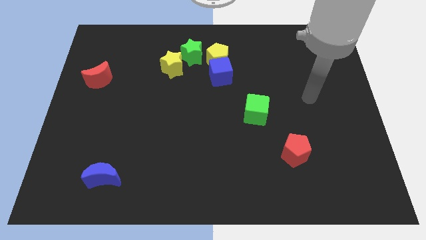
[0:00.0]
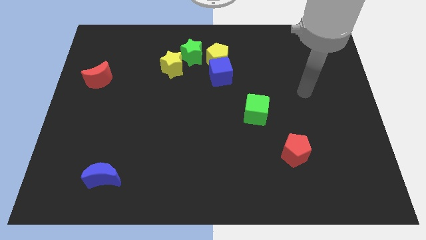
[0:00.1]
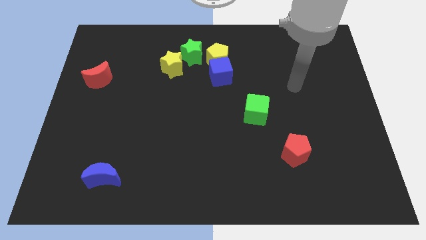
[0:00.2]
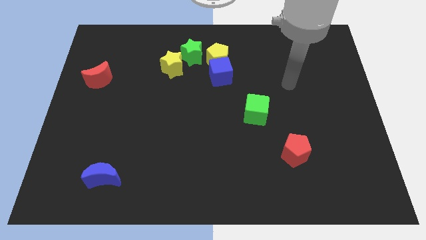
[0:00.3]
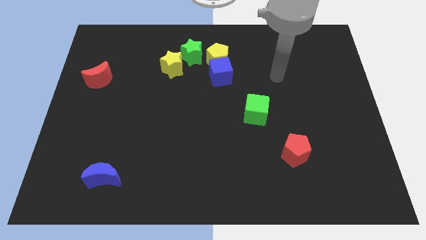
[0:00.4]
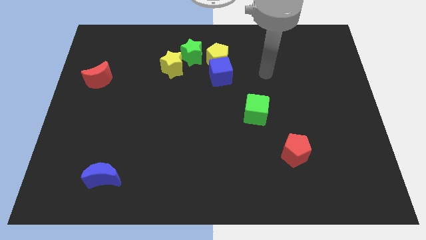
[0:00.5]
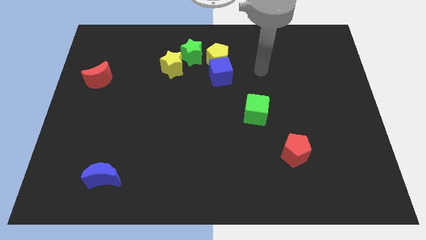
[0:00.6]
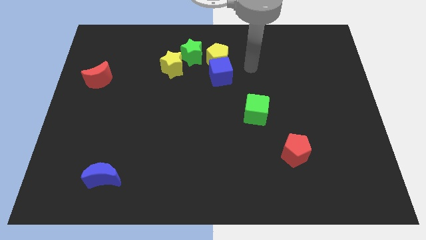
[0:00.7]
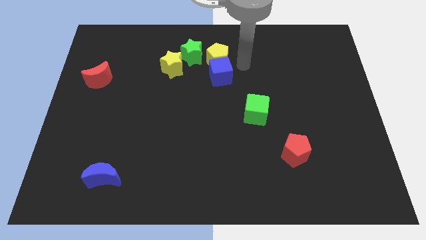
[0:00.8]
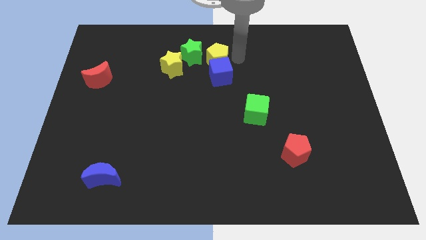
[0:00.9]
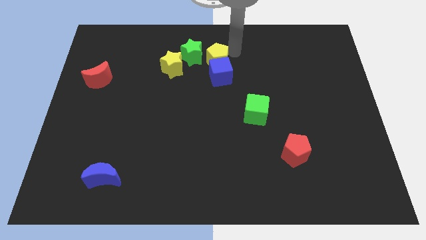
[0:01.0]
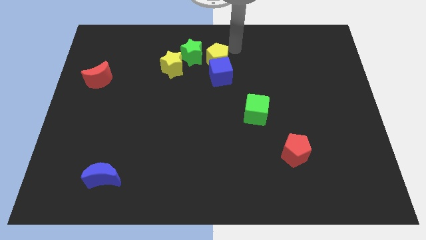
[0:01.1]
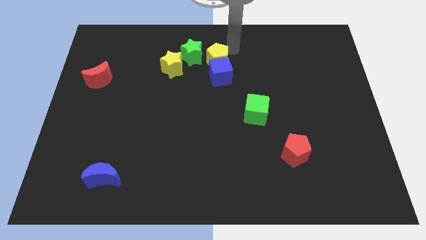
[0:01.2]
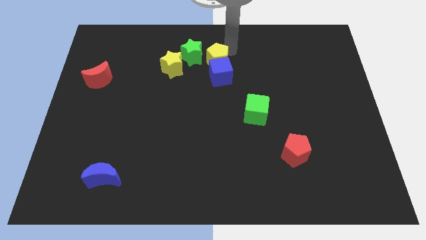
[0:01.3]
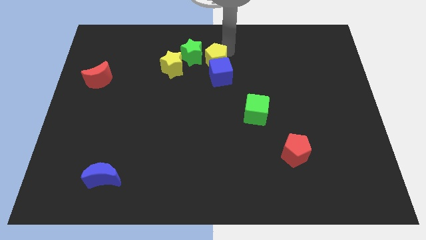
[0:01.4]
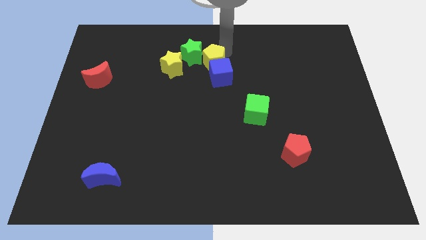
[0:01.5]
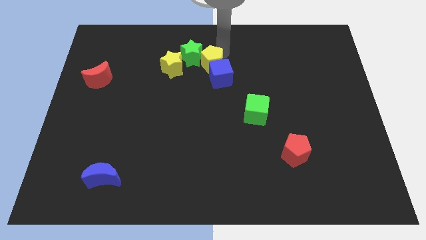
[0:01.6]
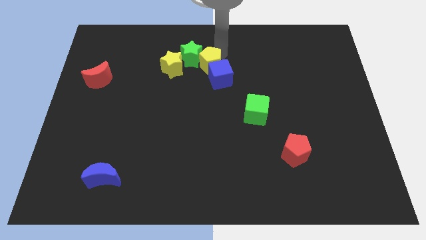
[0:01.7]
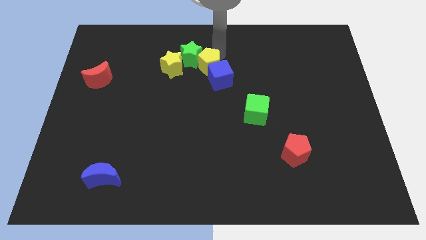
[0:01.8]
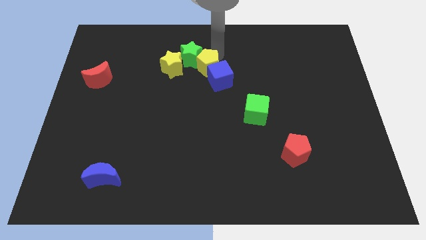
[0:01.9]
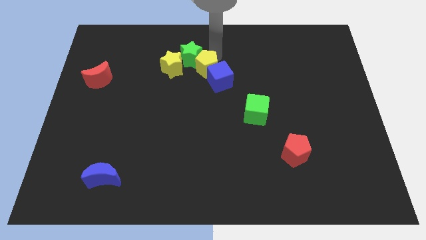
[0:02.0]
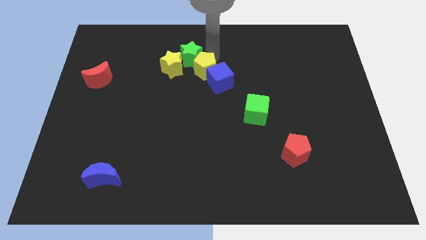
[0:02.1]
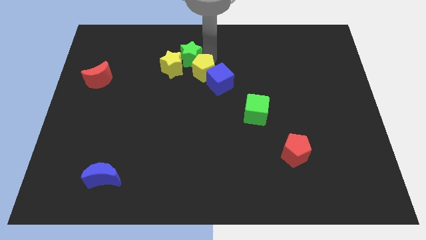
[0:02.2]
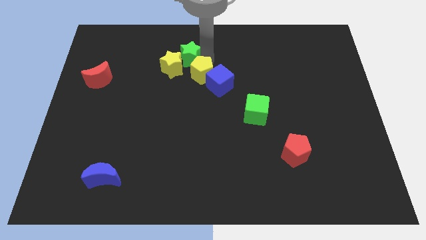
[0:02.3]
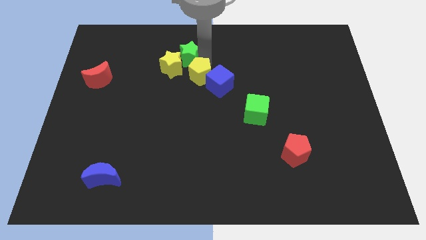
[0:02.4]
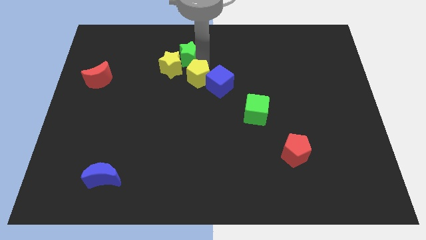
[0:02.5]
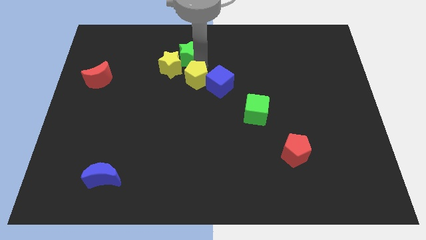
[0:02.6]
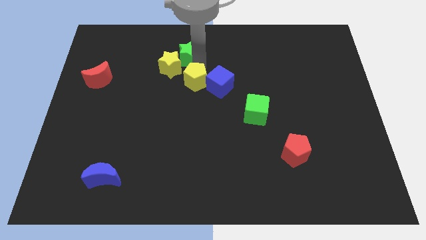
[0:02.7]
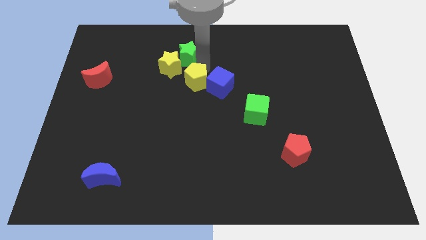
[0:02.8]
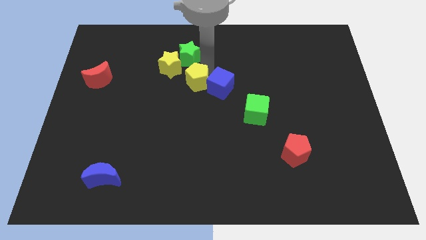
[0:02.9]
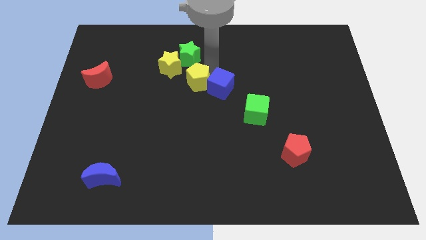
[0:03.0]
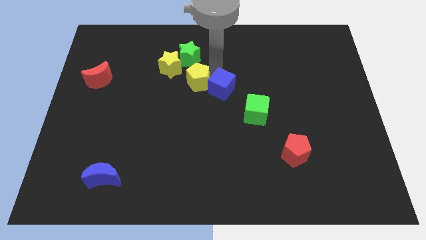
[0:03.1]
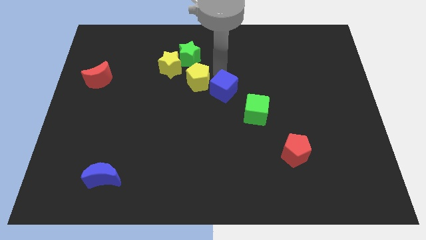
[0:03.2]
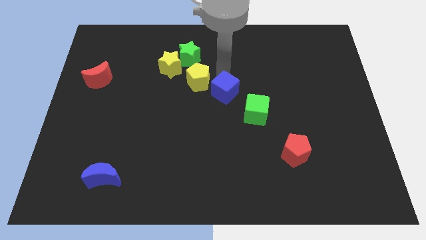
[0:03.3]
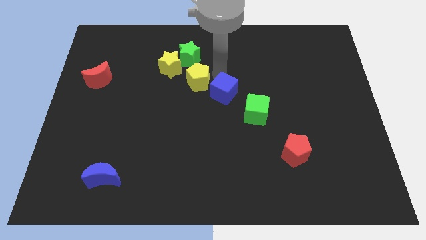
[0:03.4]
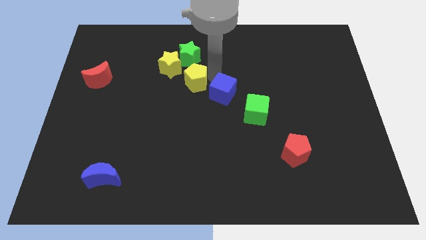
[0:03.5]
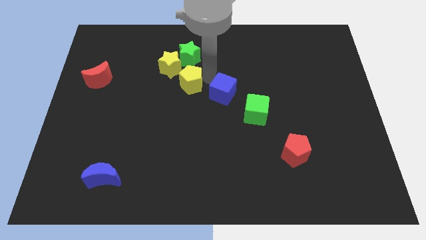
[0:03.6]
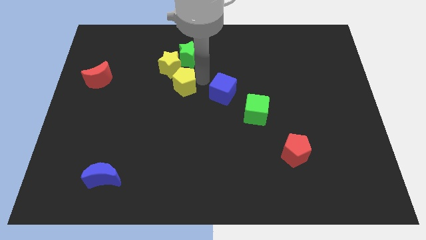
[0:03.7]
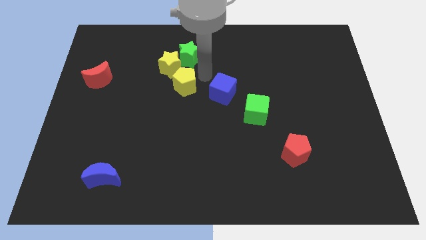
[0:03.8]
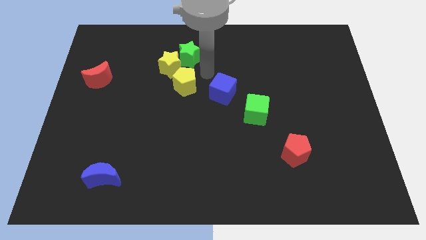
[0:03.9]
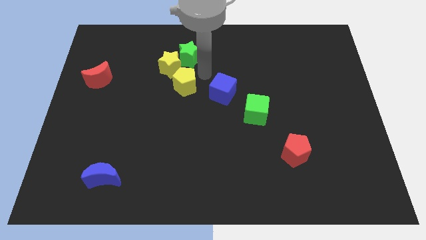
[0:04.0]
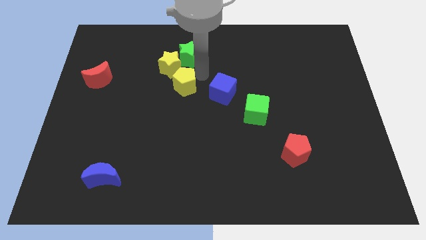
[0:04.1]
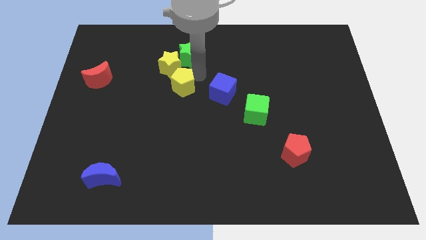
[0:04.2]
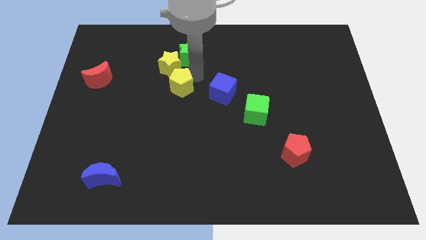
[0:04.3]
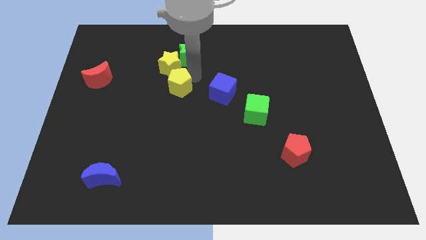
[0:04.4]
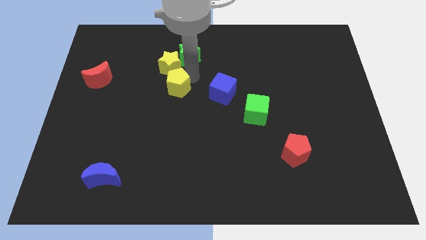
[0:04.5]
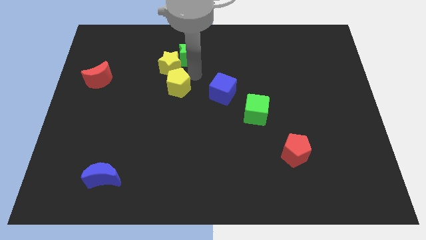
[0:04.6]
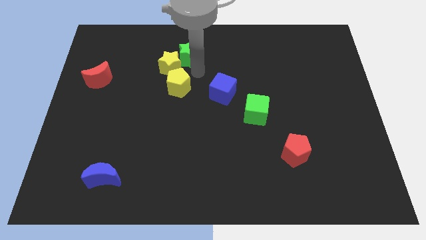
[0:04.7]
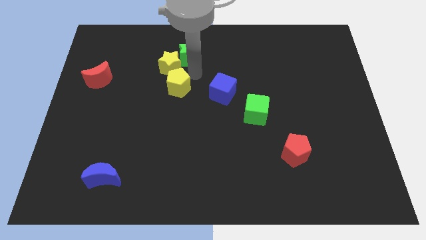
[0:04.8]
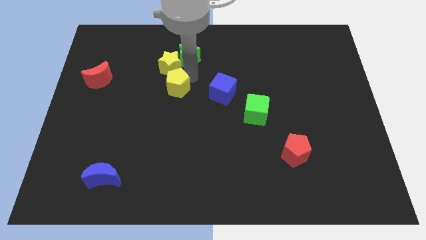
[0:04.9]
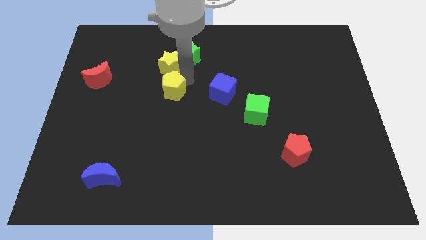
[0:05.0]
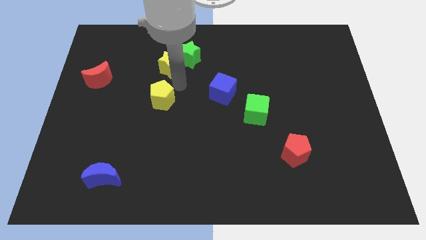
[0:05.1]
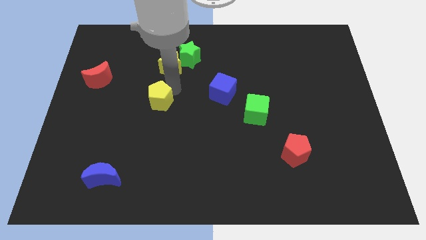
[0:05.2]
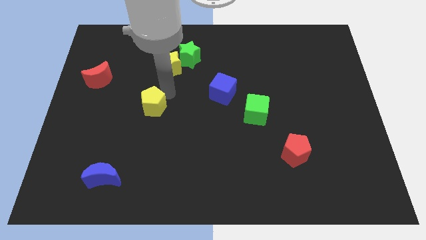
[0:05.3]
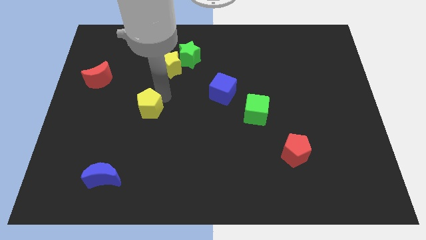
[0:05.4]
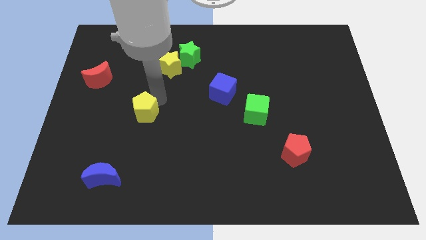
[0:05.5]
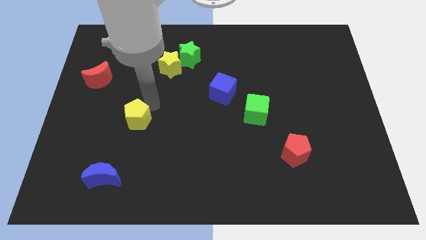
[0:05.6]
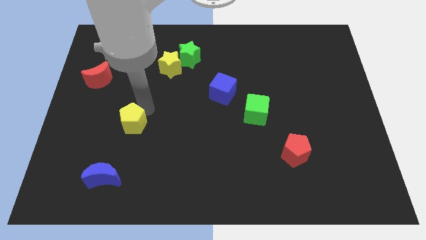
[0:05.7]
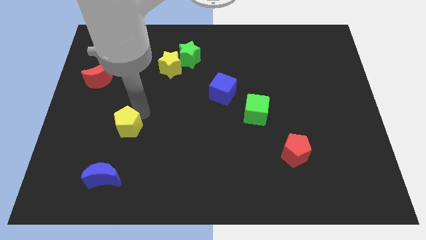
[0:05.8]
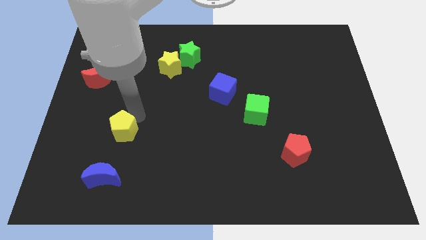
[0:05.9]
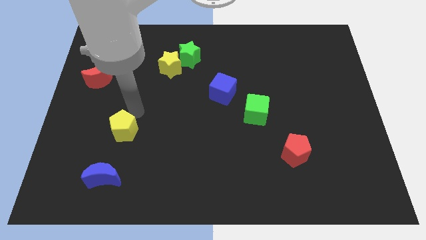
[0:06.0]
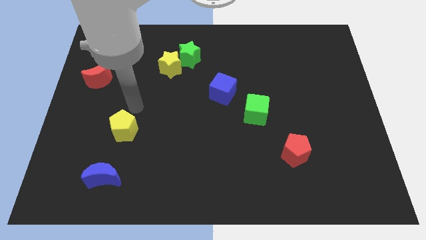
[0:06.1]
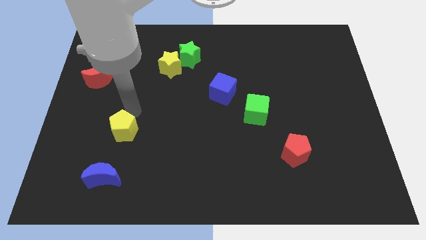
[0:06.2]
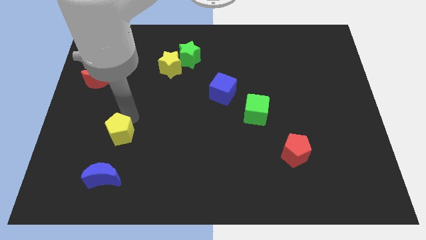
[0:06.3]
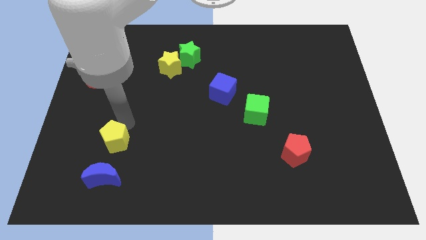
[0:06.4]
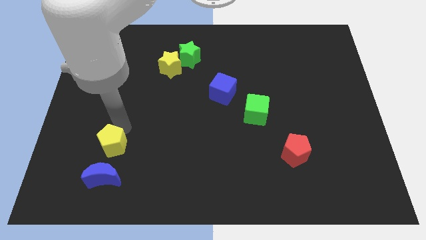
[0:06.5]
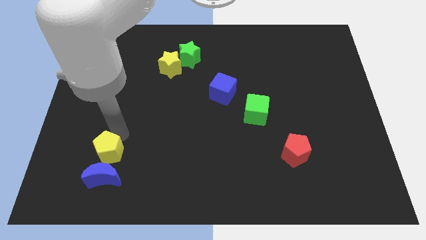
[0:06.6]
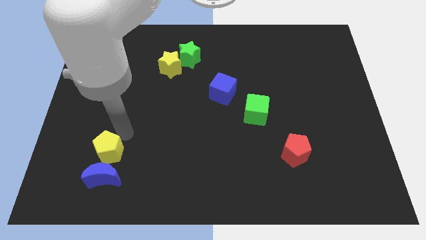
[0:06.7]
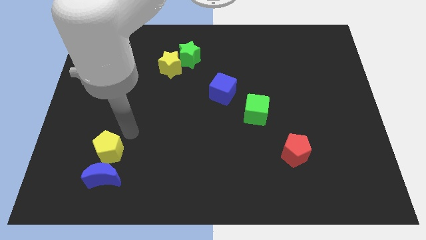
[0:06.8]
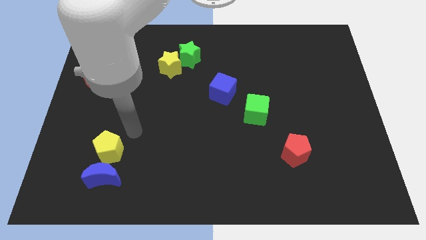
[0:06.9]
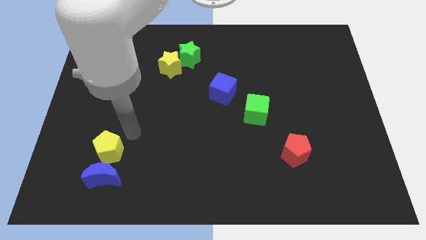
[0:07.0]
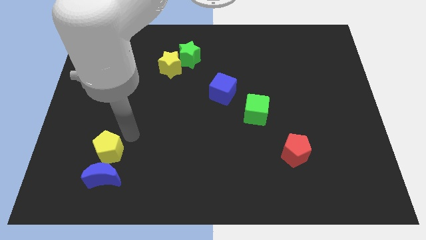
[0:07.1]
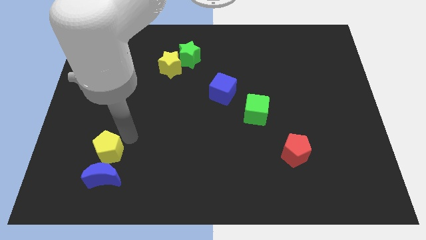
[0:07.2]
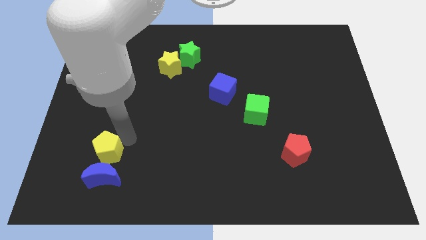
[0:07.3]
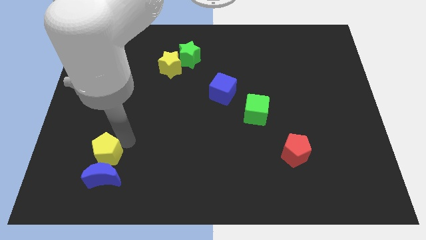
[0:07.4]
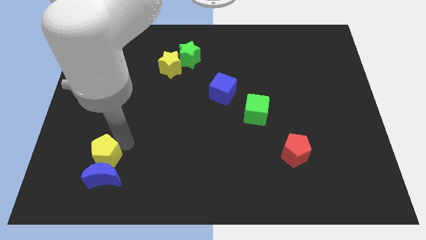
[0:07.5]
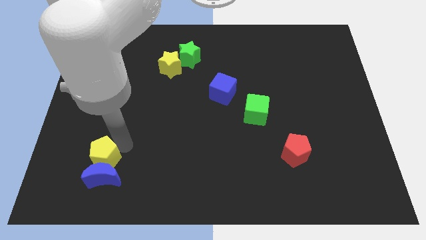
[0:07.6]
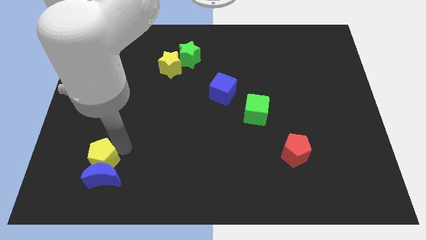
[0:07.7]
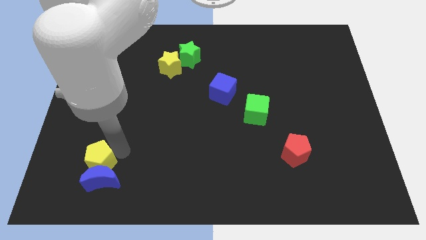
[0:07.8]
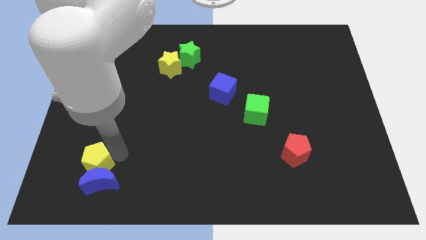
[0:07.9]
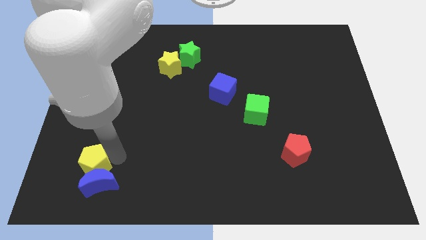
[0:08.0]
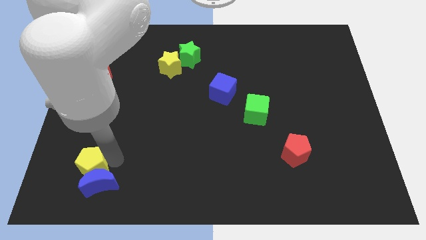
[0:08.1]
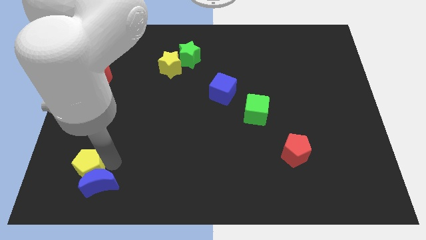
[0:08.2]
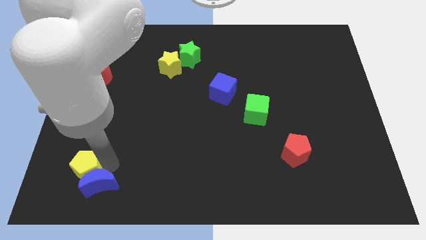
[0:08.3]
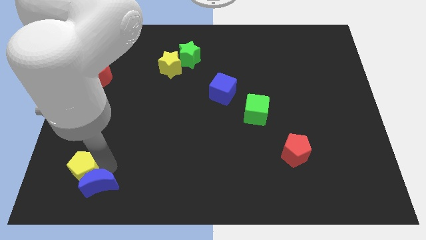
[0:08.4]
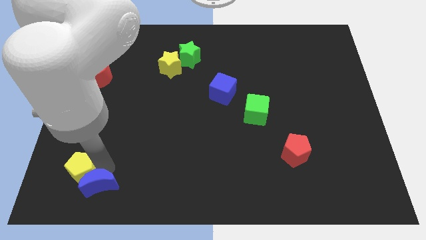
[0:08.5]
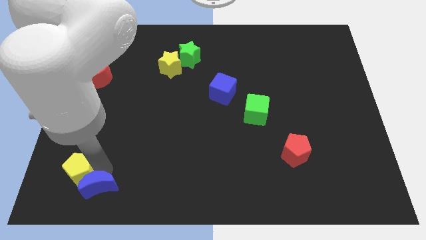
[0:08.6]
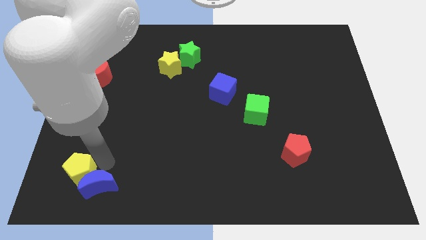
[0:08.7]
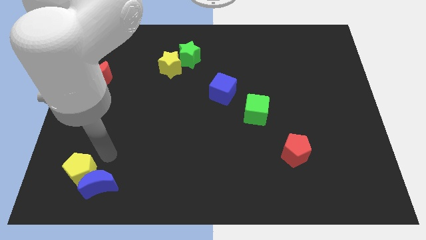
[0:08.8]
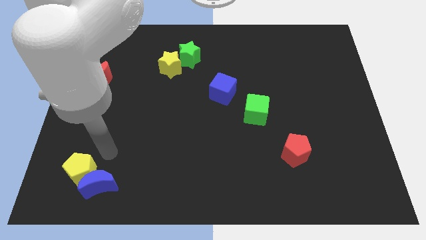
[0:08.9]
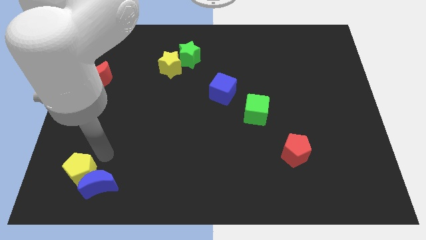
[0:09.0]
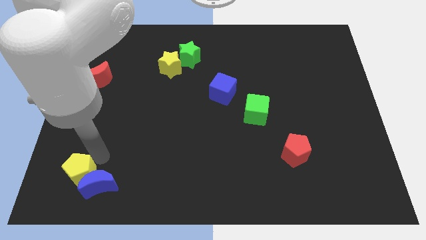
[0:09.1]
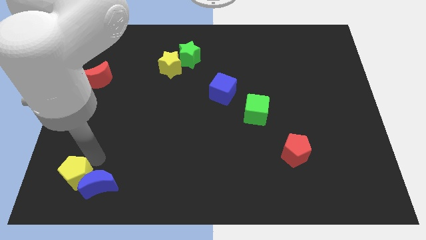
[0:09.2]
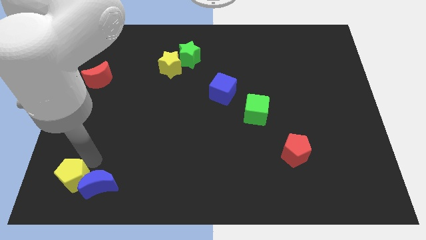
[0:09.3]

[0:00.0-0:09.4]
push the yellow pentagon to the bottom left
